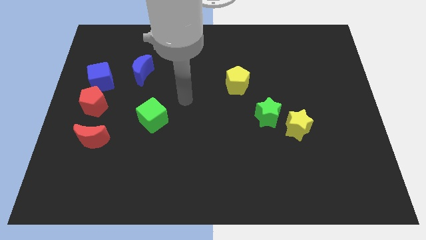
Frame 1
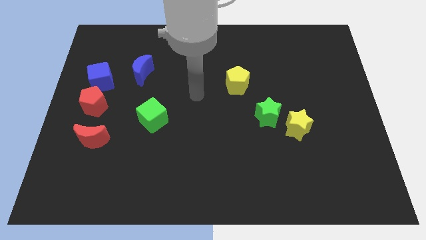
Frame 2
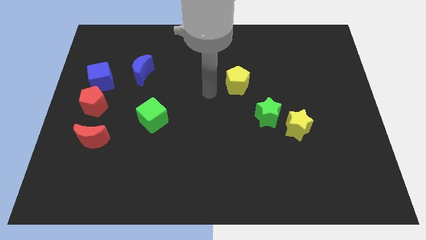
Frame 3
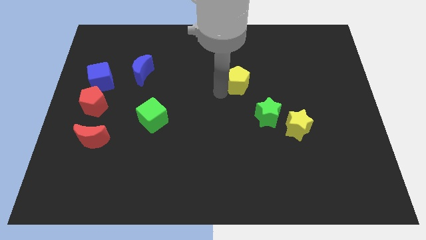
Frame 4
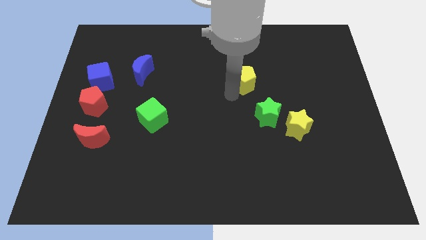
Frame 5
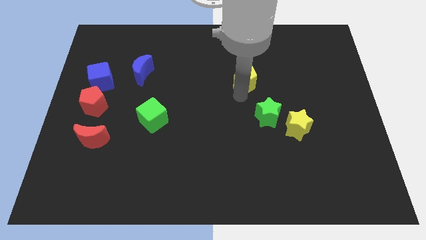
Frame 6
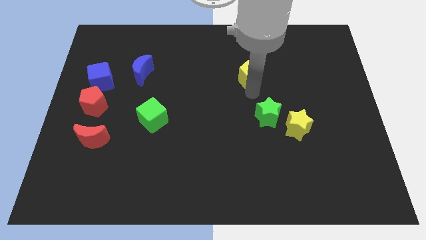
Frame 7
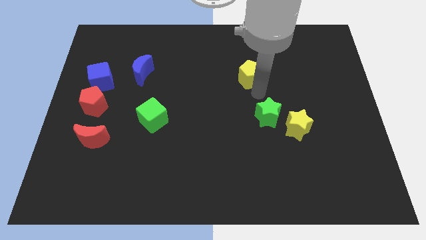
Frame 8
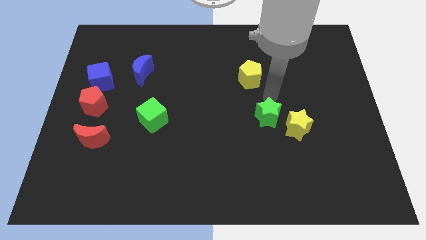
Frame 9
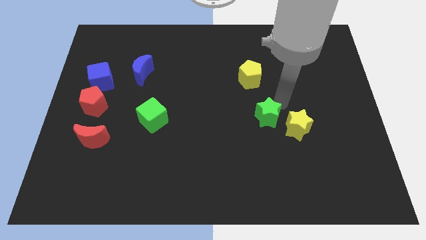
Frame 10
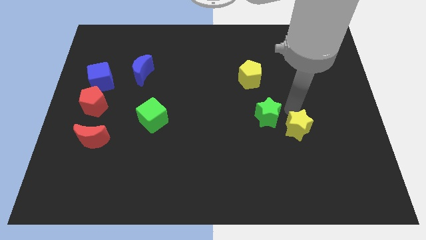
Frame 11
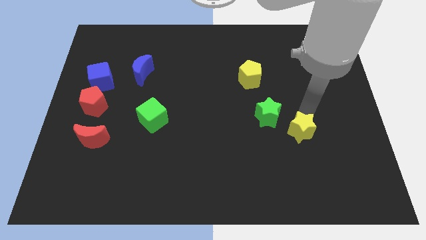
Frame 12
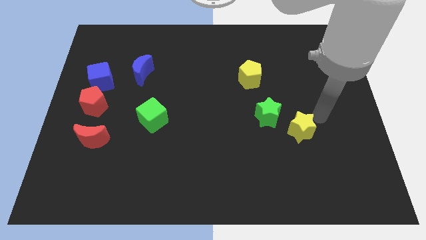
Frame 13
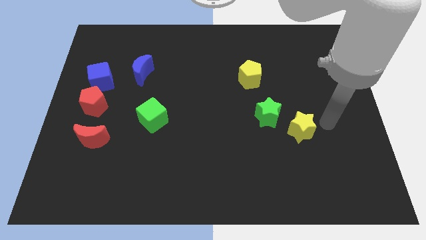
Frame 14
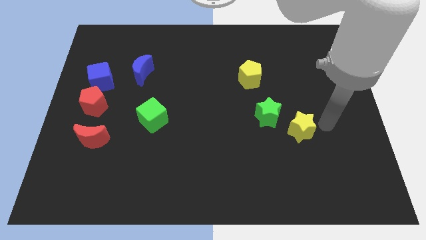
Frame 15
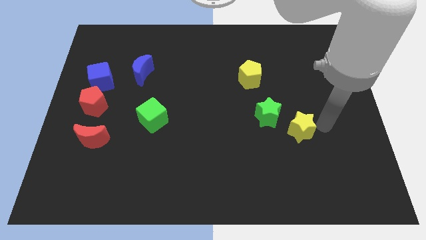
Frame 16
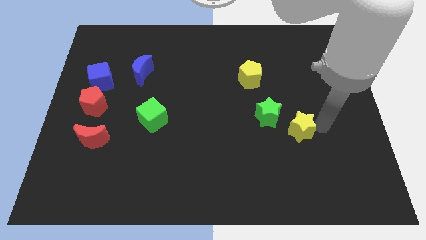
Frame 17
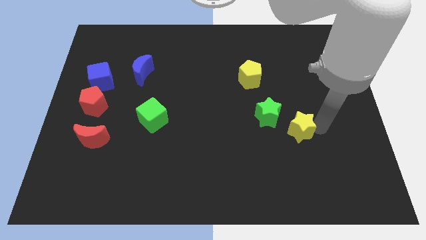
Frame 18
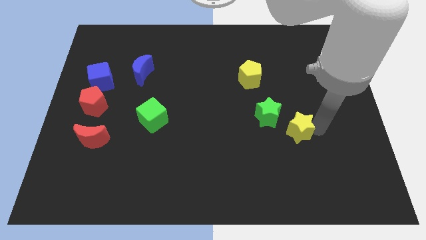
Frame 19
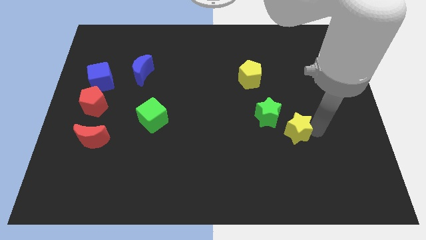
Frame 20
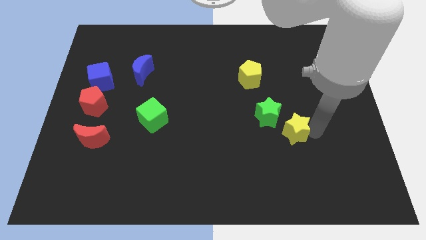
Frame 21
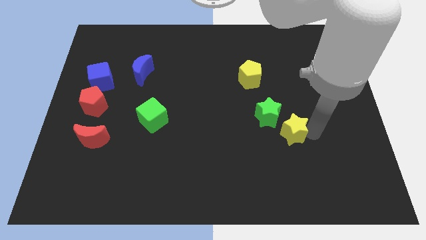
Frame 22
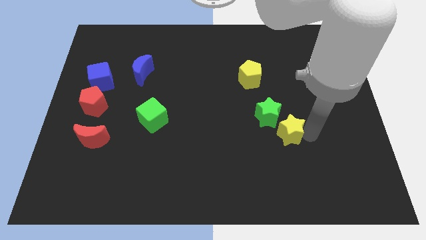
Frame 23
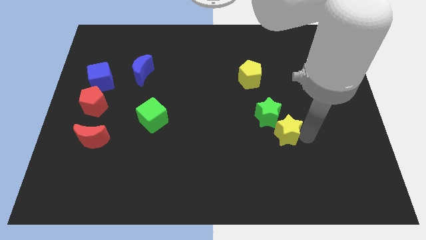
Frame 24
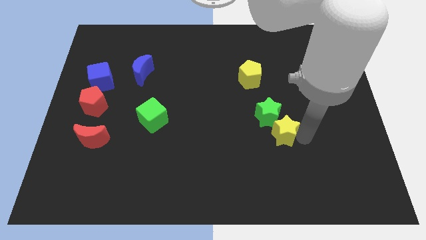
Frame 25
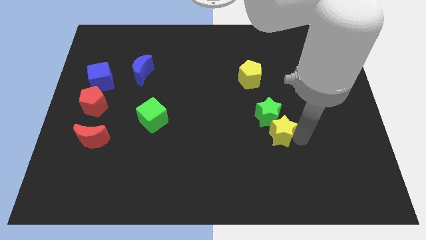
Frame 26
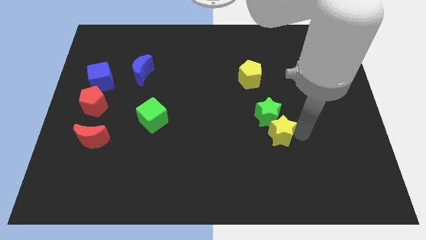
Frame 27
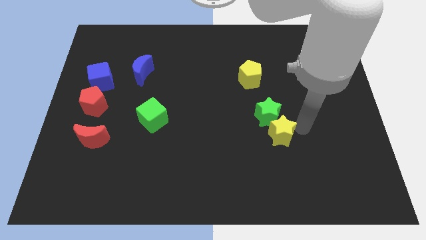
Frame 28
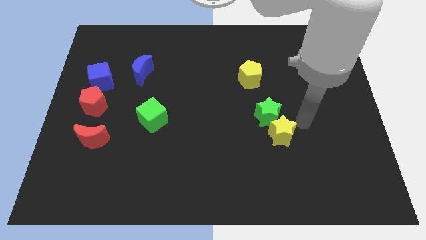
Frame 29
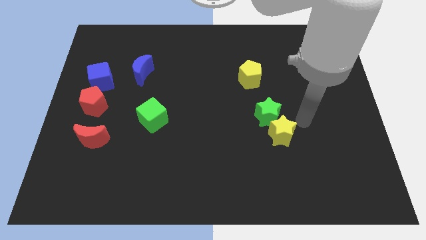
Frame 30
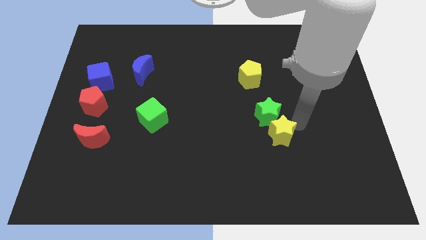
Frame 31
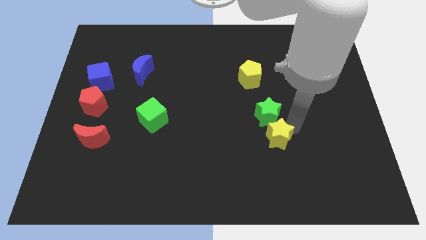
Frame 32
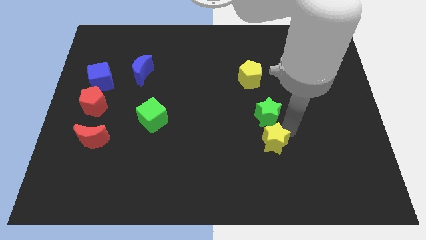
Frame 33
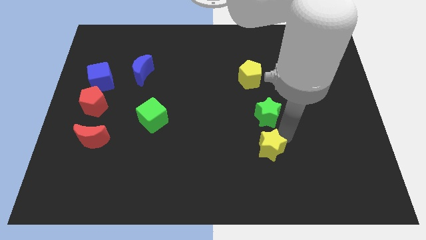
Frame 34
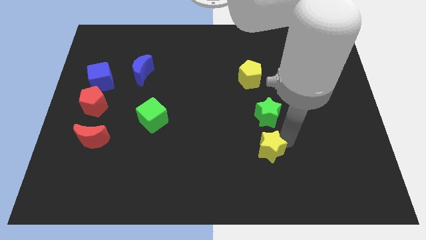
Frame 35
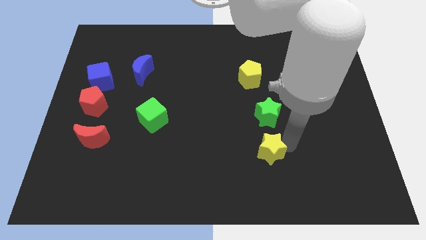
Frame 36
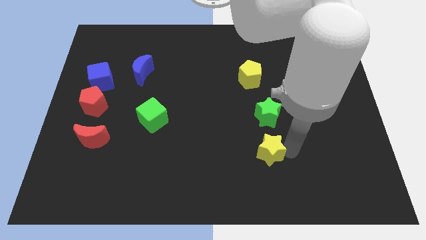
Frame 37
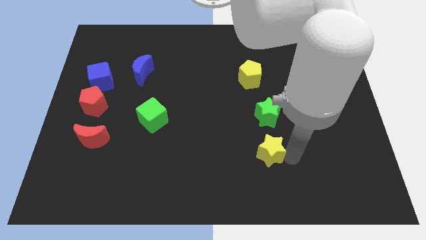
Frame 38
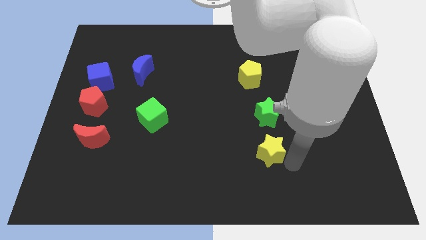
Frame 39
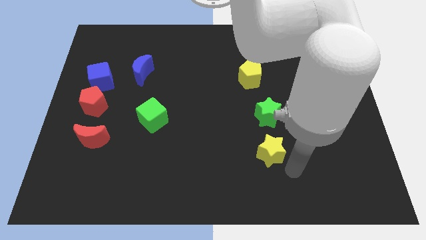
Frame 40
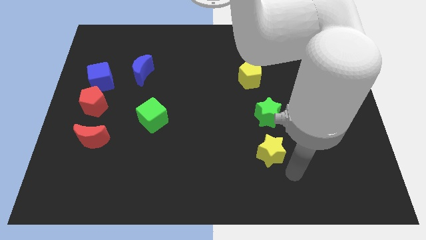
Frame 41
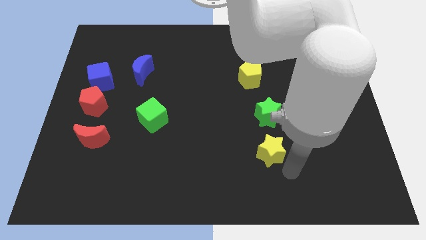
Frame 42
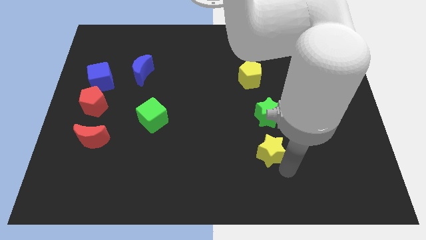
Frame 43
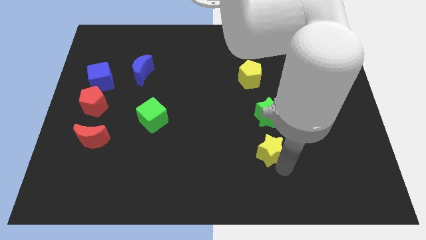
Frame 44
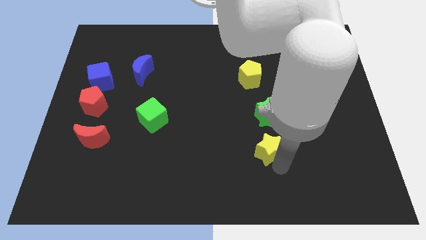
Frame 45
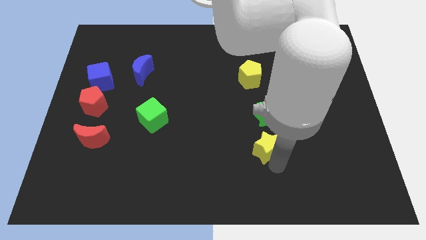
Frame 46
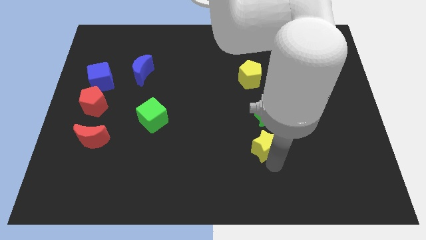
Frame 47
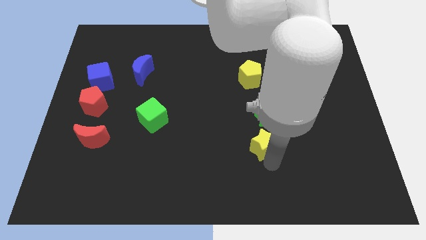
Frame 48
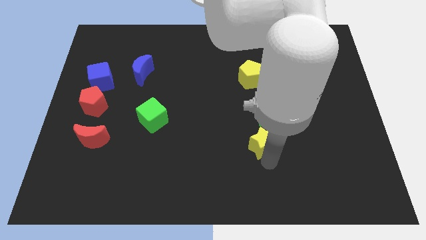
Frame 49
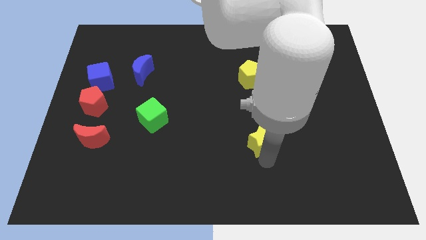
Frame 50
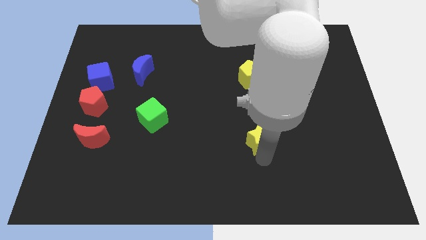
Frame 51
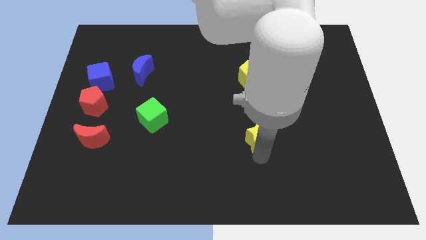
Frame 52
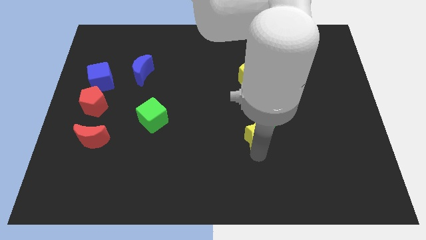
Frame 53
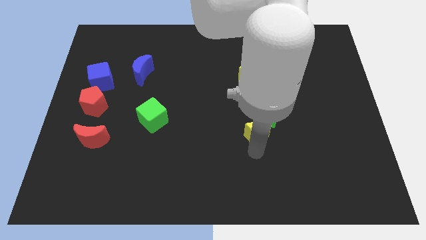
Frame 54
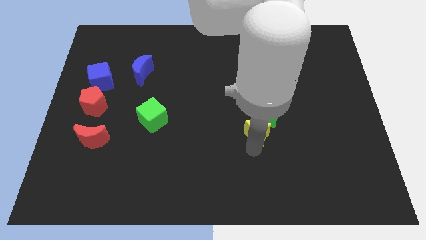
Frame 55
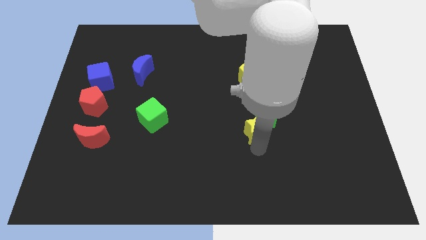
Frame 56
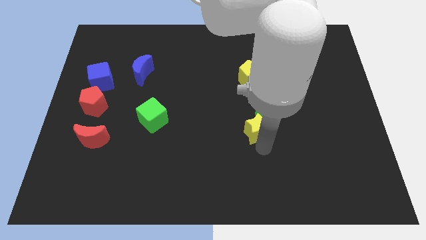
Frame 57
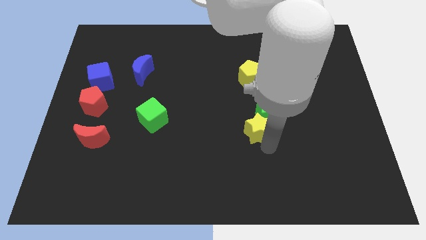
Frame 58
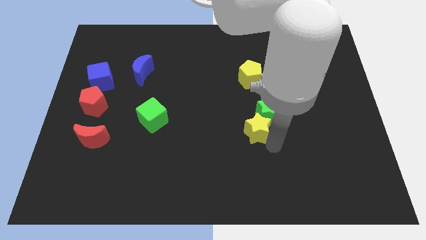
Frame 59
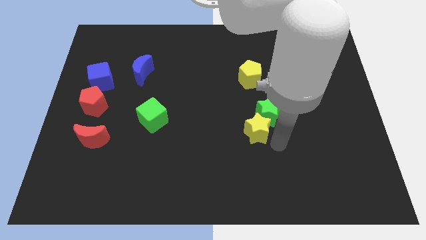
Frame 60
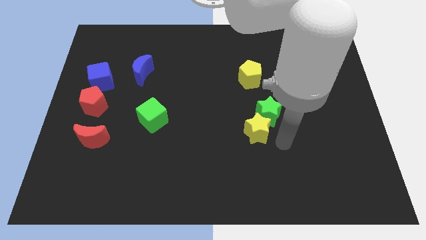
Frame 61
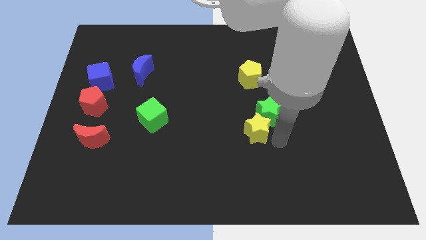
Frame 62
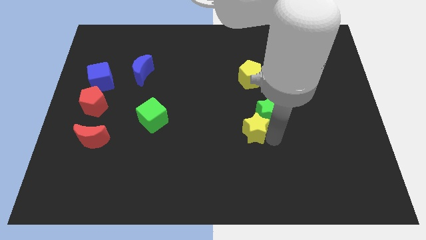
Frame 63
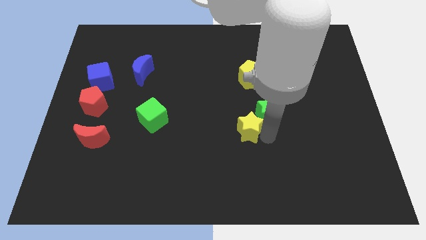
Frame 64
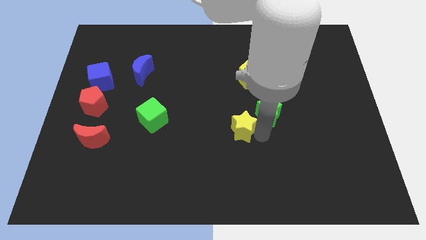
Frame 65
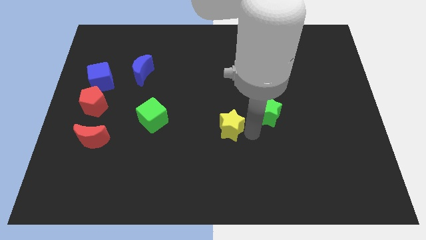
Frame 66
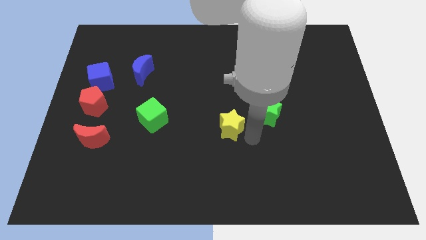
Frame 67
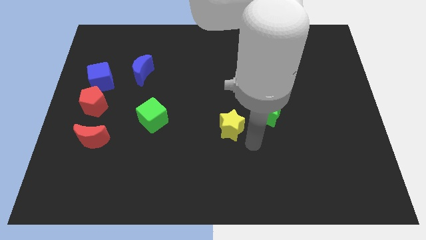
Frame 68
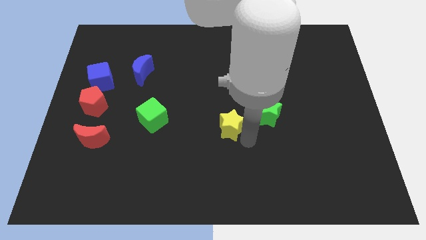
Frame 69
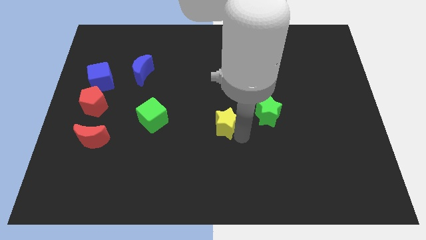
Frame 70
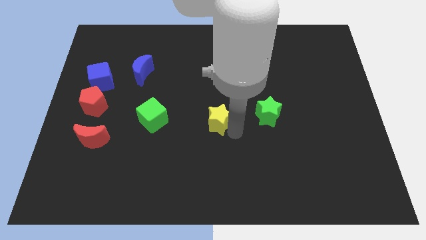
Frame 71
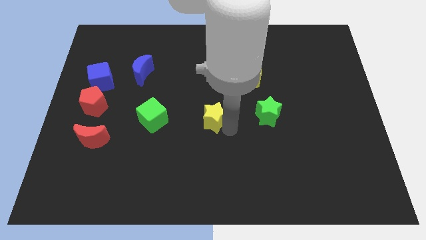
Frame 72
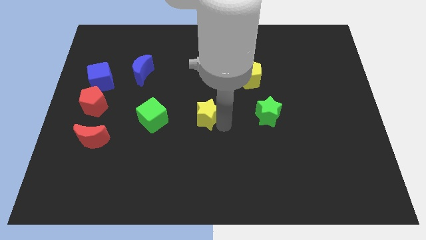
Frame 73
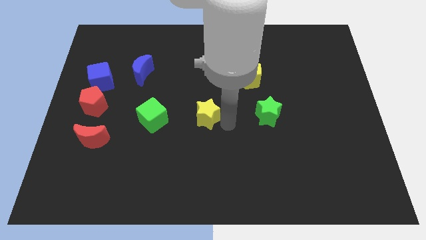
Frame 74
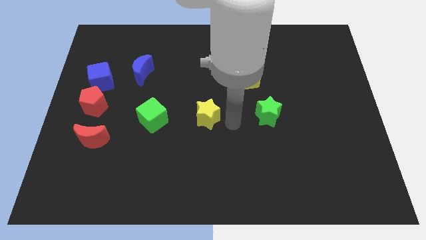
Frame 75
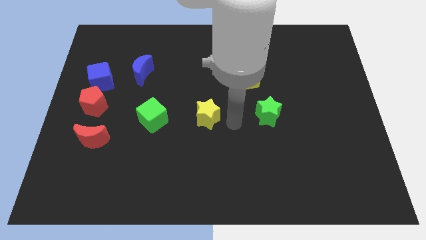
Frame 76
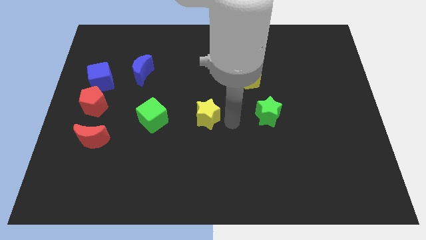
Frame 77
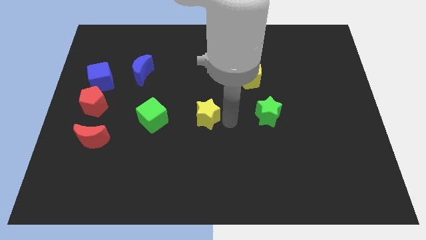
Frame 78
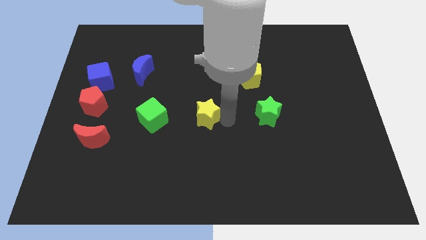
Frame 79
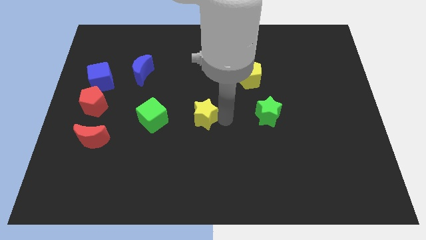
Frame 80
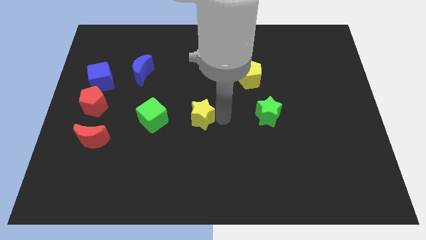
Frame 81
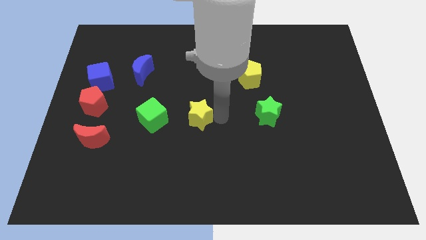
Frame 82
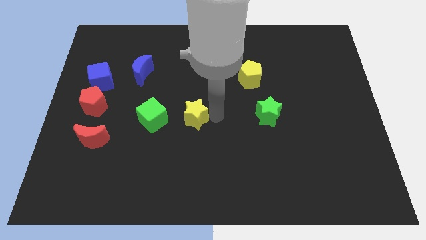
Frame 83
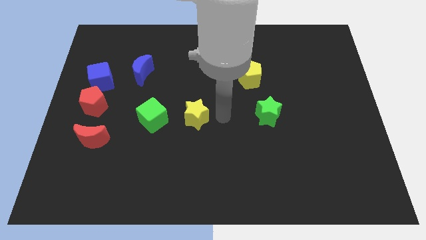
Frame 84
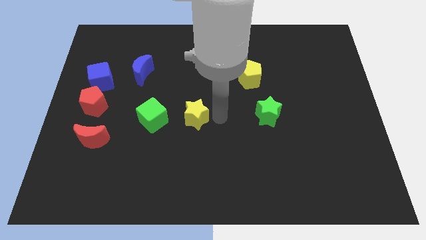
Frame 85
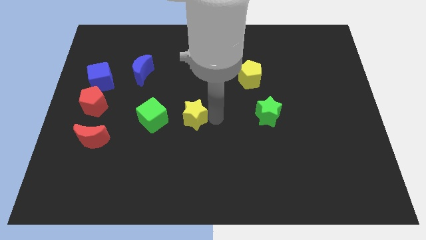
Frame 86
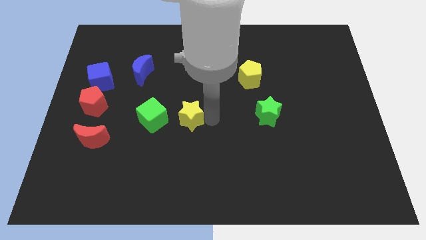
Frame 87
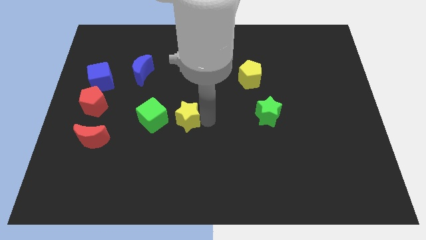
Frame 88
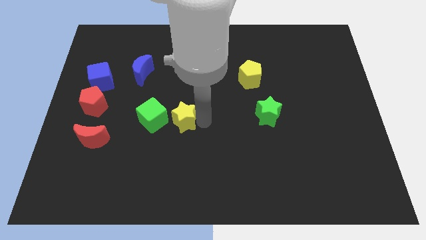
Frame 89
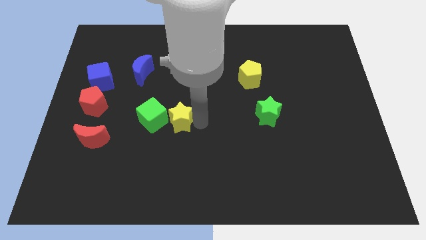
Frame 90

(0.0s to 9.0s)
push the yellow star towards the green cube
